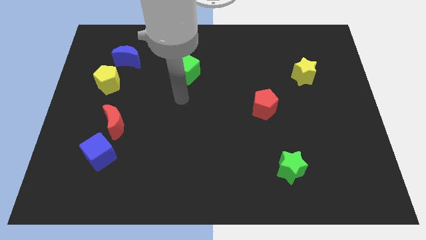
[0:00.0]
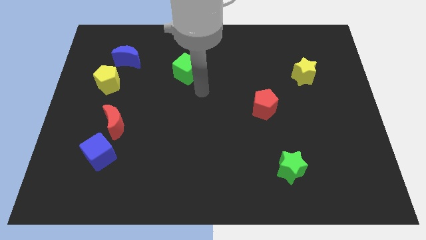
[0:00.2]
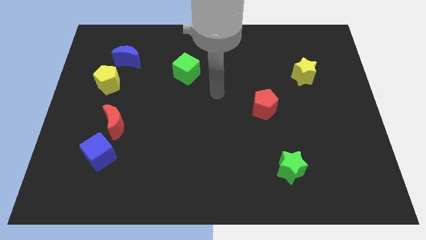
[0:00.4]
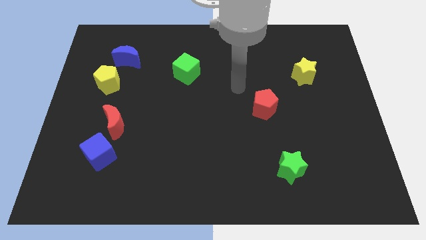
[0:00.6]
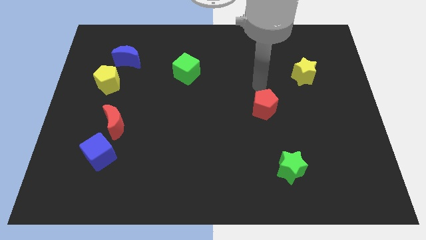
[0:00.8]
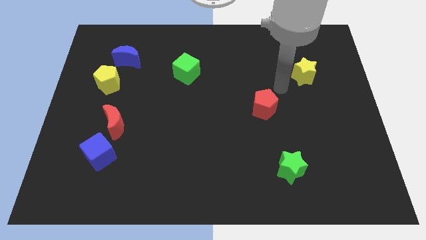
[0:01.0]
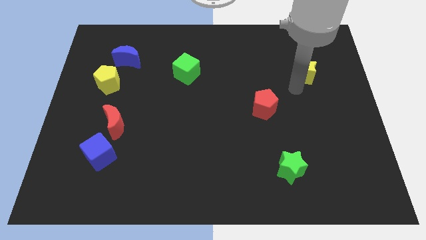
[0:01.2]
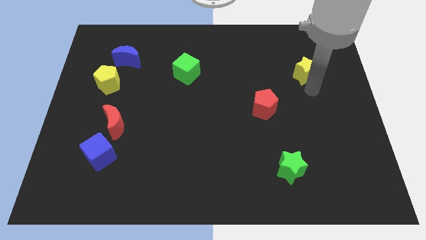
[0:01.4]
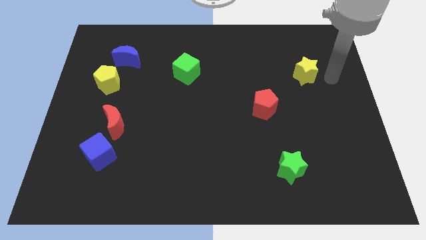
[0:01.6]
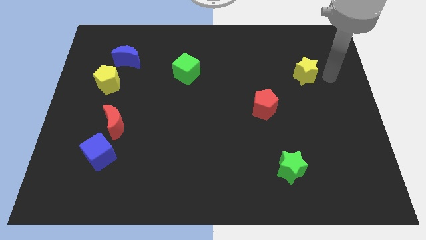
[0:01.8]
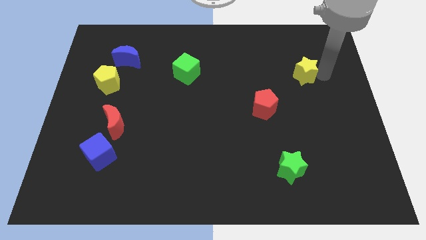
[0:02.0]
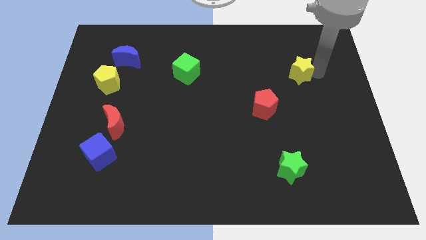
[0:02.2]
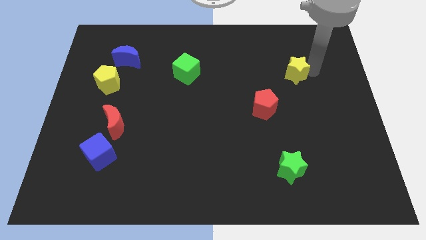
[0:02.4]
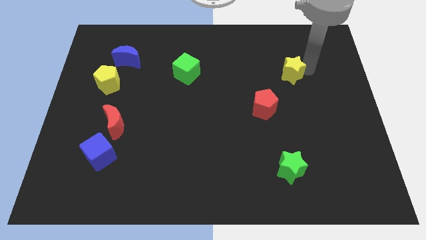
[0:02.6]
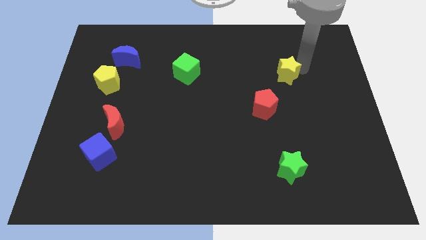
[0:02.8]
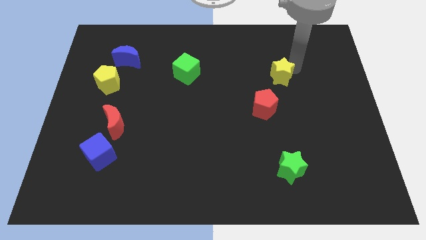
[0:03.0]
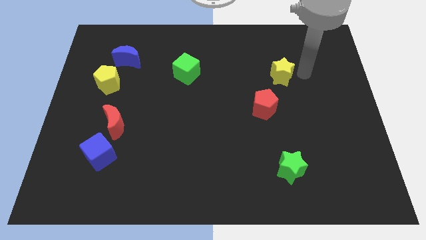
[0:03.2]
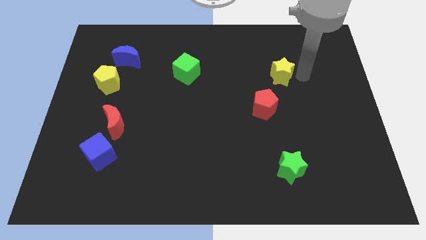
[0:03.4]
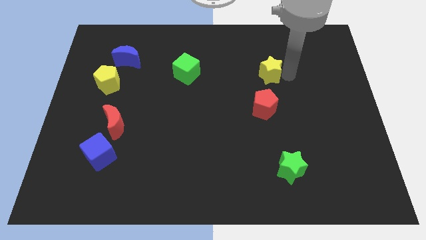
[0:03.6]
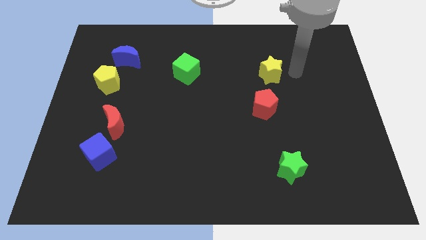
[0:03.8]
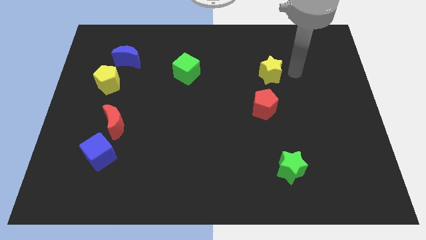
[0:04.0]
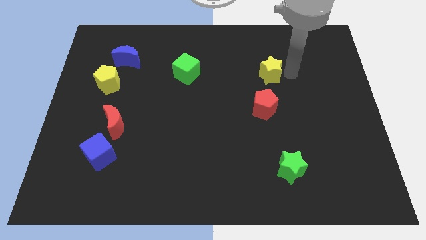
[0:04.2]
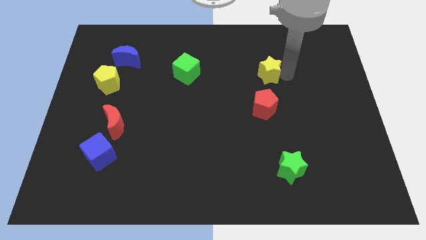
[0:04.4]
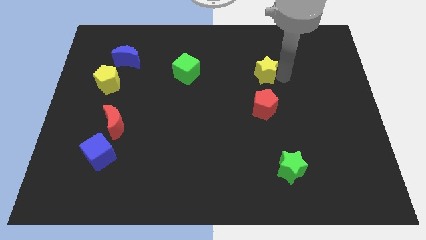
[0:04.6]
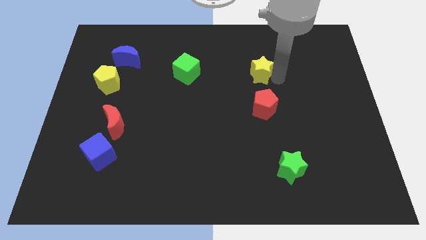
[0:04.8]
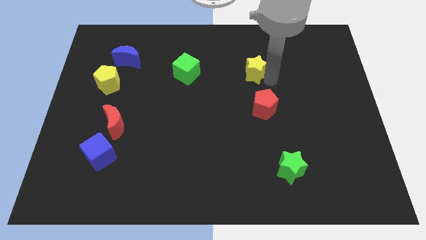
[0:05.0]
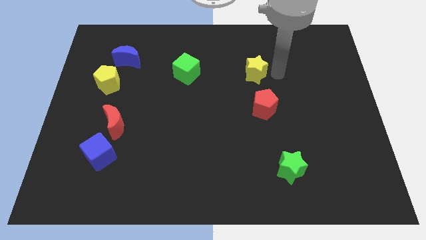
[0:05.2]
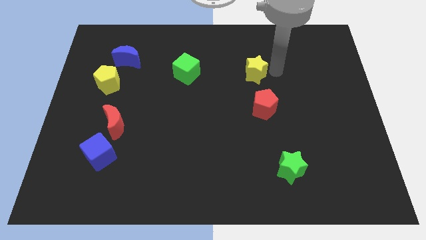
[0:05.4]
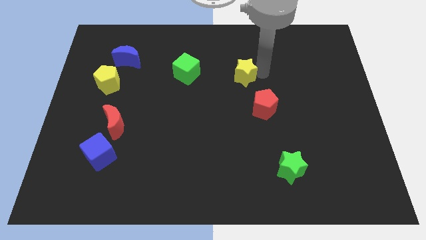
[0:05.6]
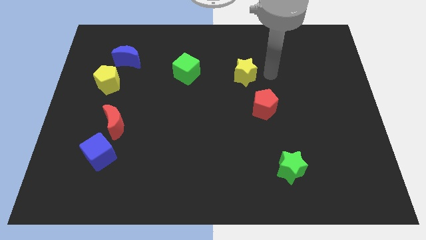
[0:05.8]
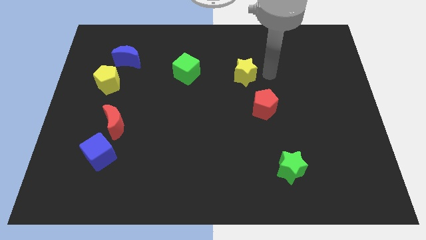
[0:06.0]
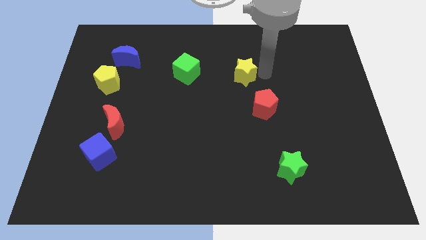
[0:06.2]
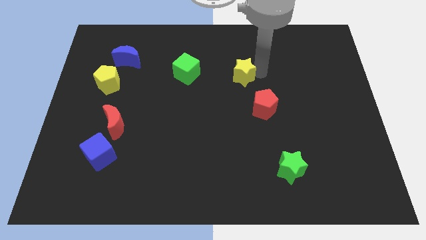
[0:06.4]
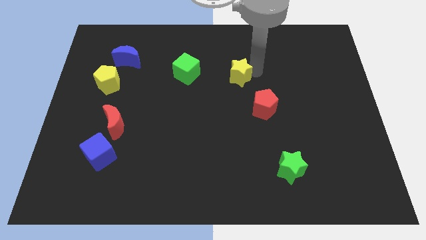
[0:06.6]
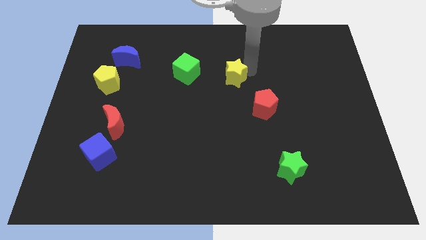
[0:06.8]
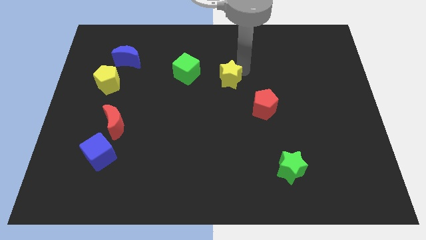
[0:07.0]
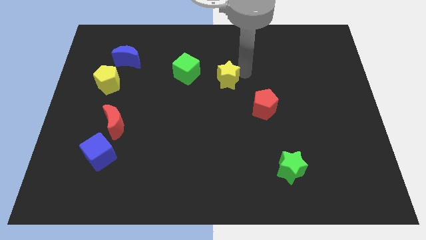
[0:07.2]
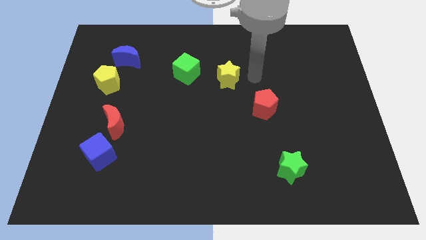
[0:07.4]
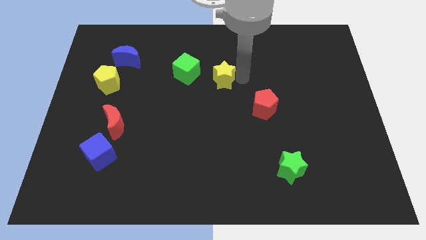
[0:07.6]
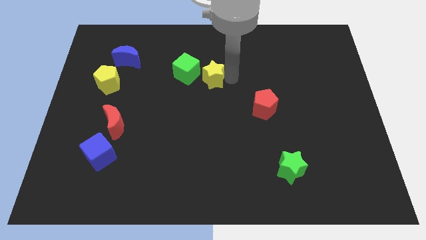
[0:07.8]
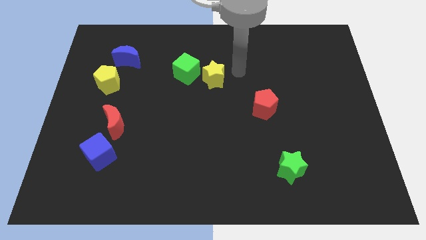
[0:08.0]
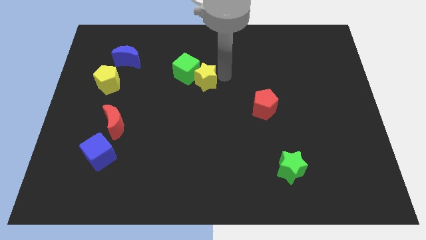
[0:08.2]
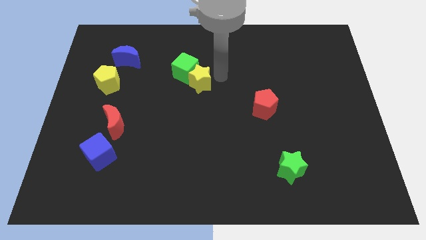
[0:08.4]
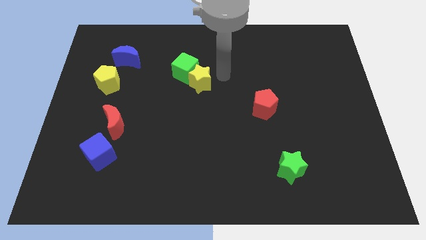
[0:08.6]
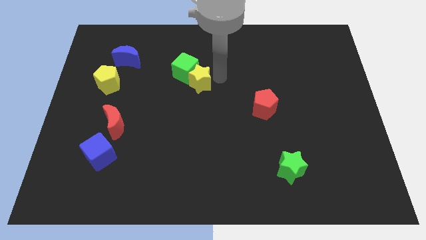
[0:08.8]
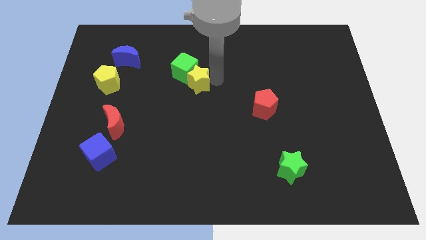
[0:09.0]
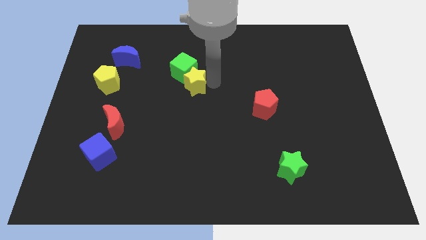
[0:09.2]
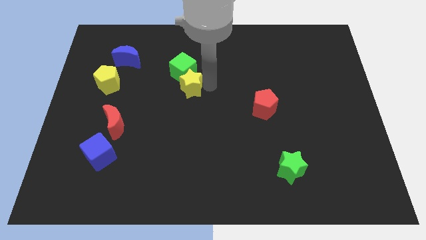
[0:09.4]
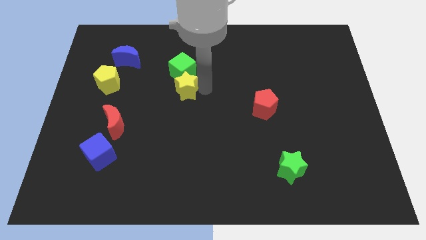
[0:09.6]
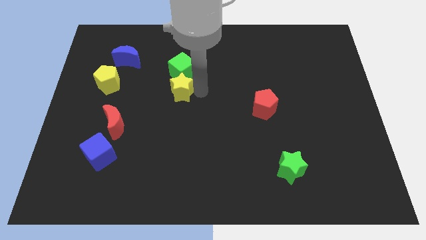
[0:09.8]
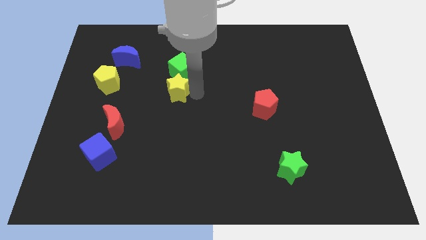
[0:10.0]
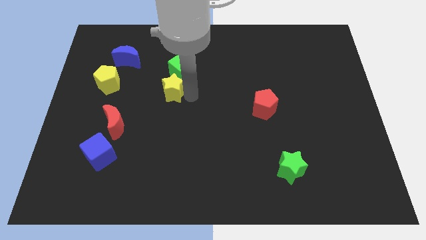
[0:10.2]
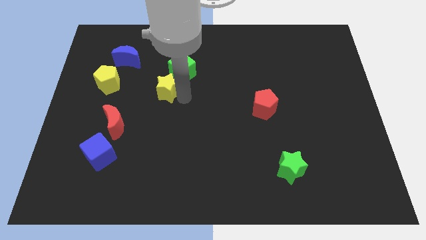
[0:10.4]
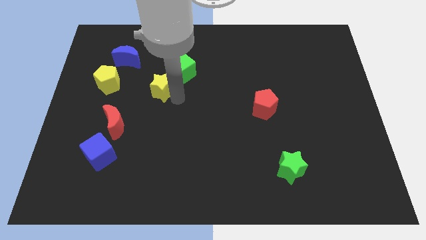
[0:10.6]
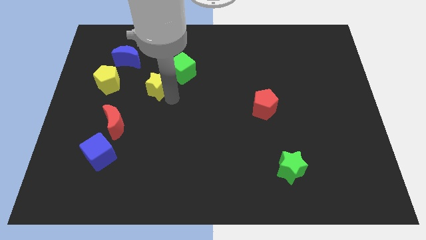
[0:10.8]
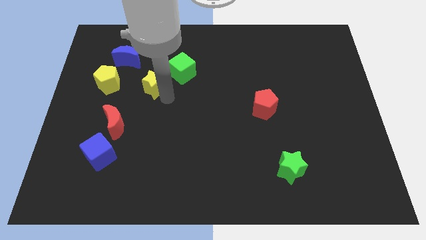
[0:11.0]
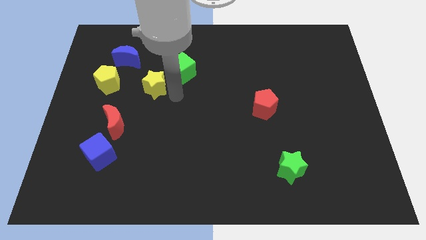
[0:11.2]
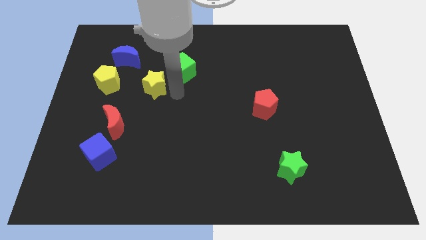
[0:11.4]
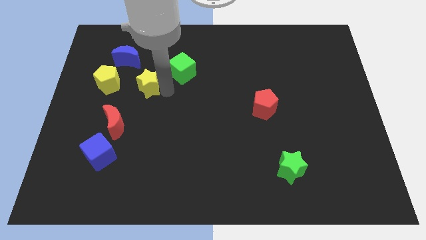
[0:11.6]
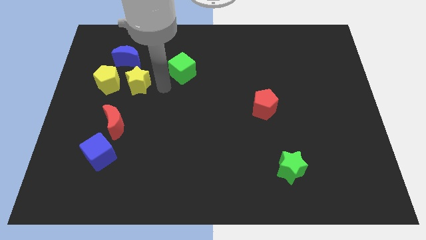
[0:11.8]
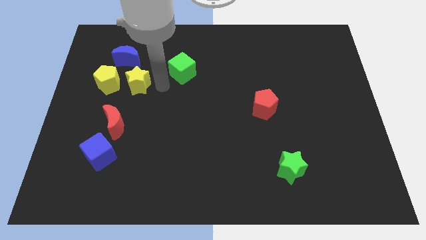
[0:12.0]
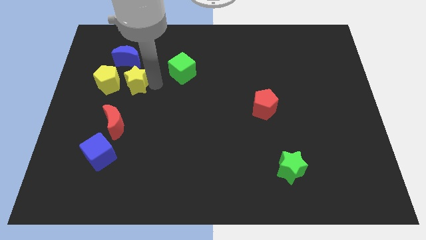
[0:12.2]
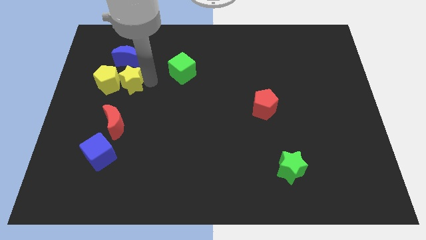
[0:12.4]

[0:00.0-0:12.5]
move the yellow star to the yellow pentagon

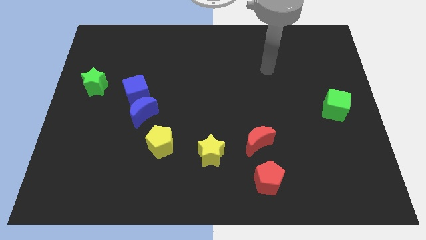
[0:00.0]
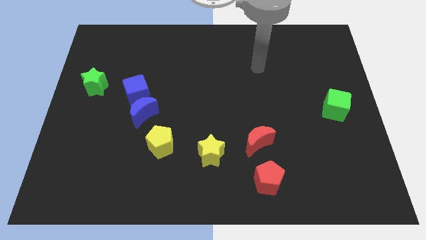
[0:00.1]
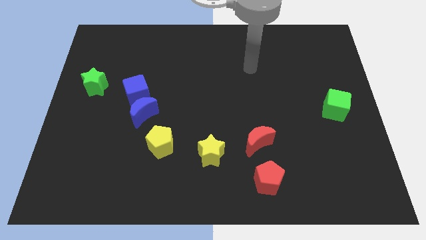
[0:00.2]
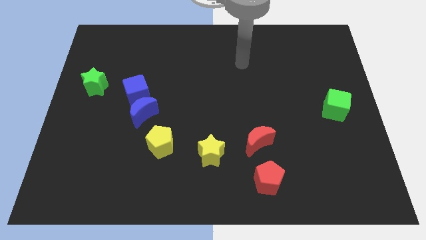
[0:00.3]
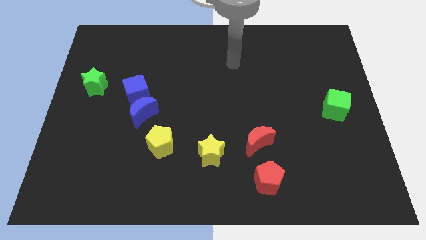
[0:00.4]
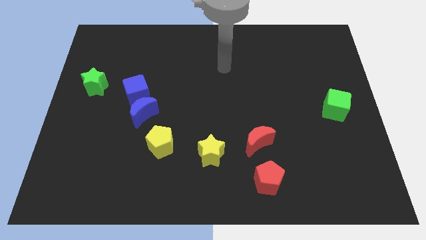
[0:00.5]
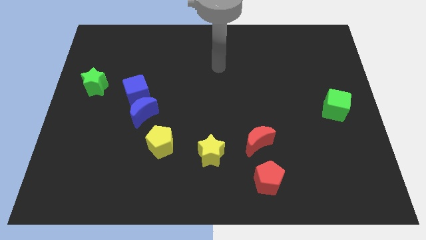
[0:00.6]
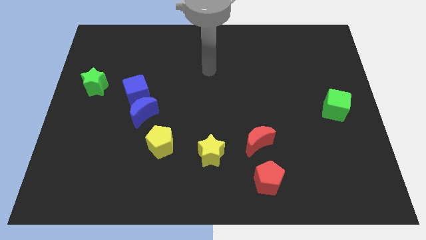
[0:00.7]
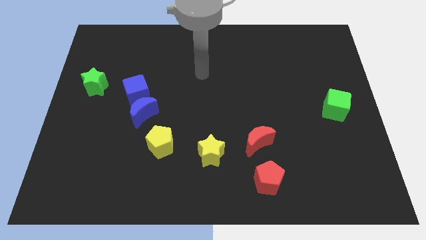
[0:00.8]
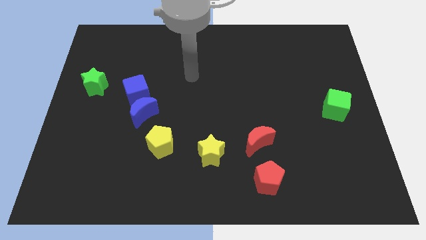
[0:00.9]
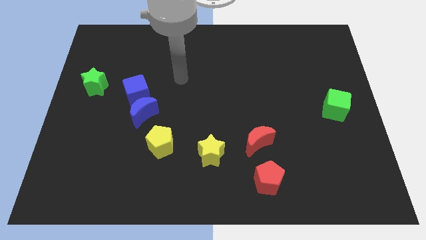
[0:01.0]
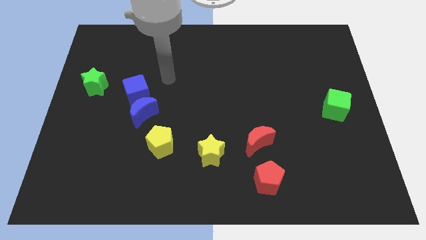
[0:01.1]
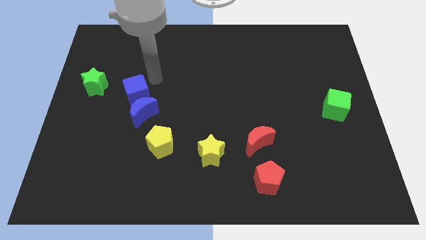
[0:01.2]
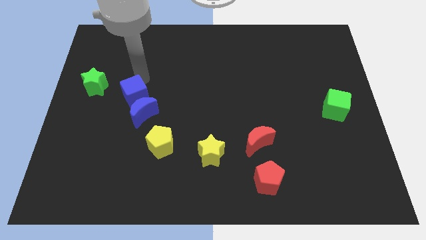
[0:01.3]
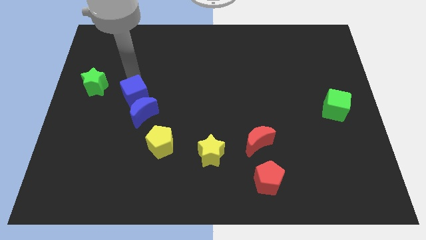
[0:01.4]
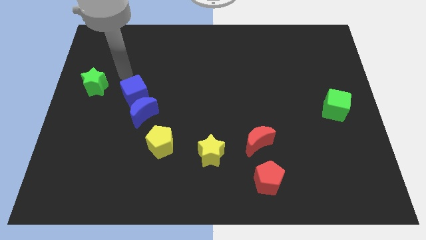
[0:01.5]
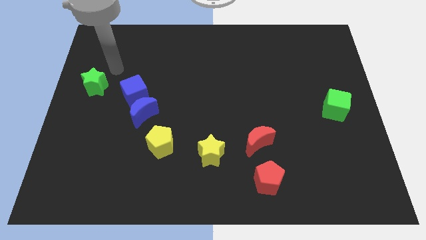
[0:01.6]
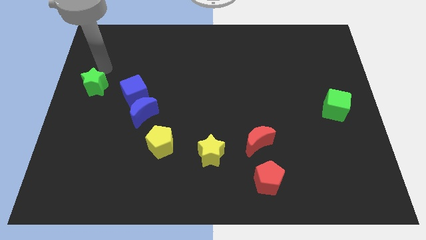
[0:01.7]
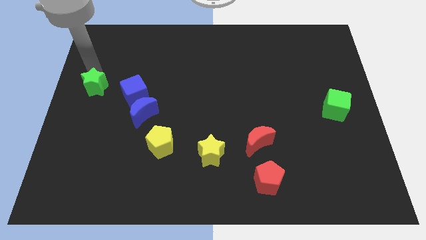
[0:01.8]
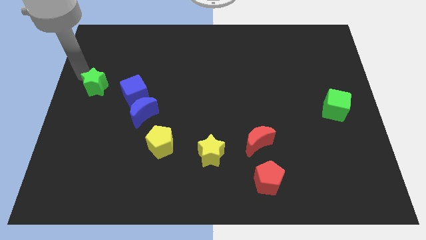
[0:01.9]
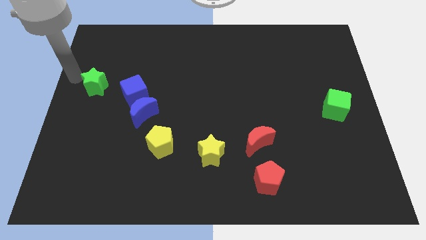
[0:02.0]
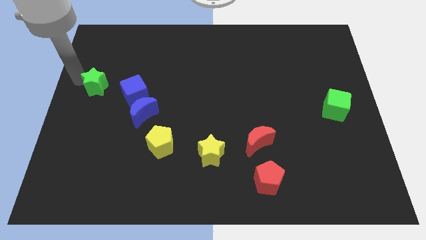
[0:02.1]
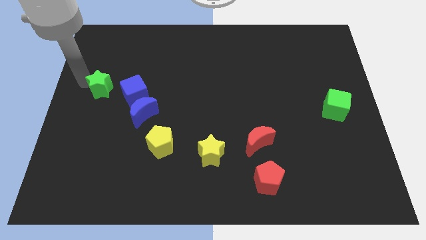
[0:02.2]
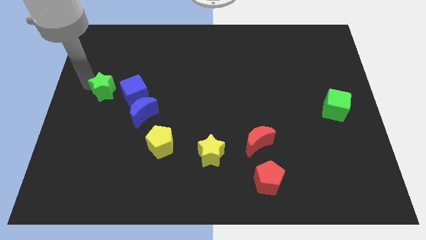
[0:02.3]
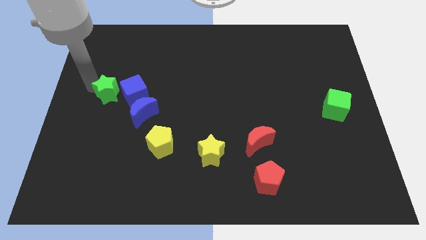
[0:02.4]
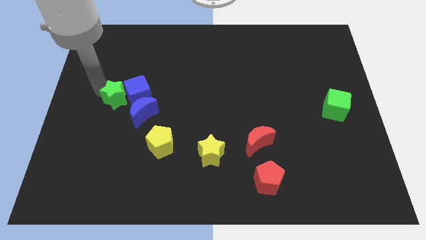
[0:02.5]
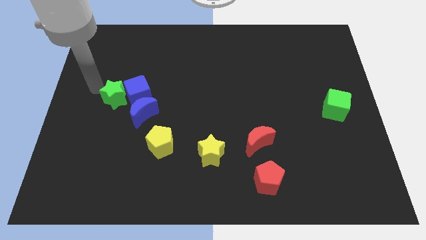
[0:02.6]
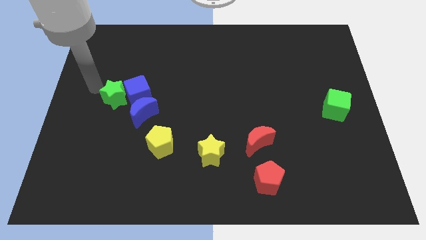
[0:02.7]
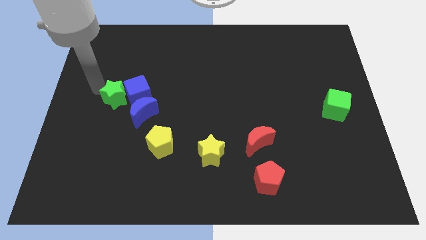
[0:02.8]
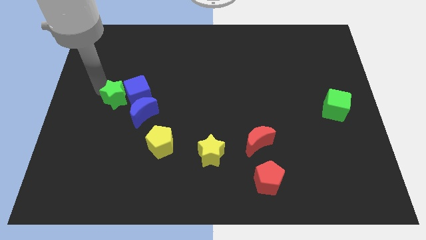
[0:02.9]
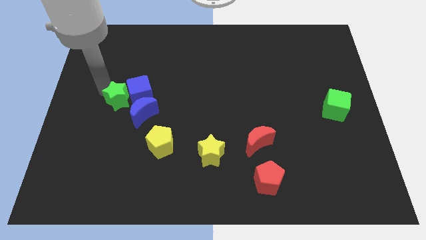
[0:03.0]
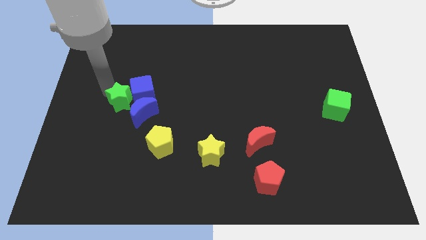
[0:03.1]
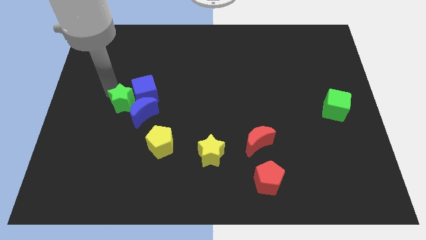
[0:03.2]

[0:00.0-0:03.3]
slide the green star towards the blue moon
